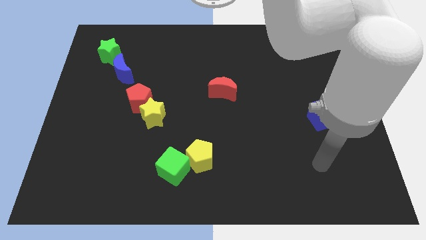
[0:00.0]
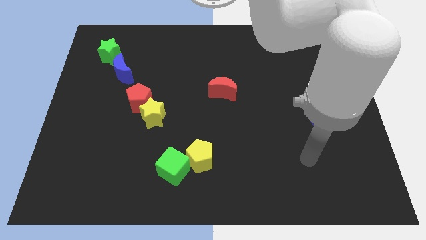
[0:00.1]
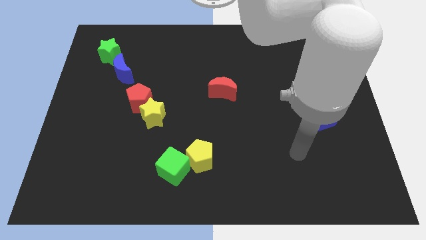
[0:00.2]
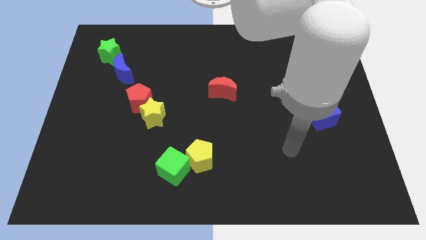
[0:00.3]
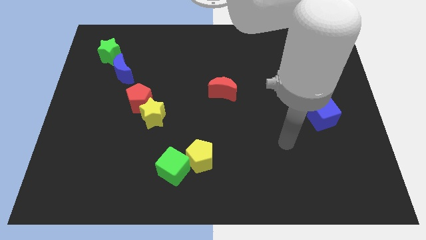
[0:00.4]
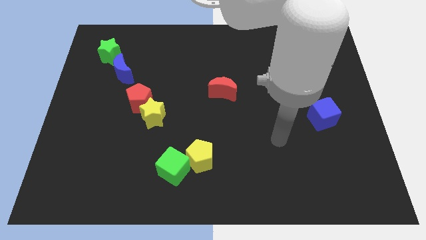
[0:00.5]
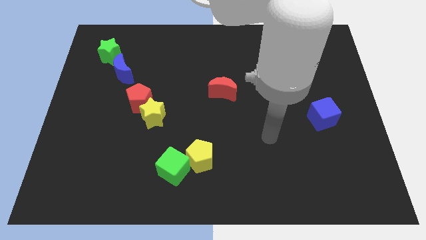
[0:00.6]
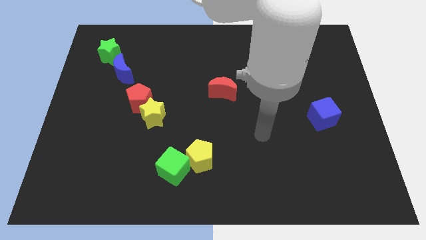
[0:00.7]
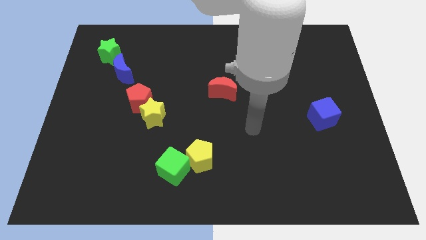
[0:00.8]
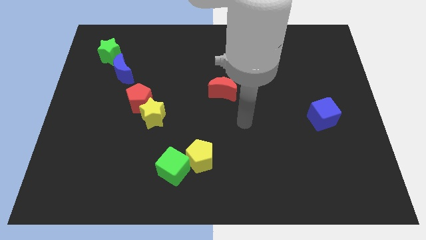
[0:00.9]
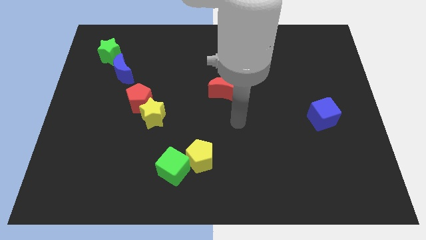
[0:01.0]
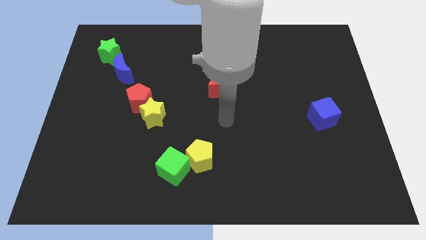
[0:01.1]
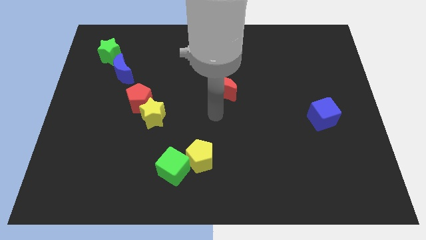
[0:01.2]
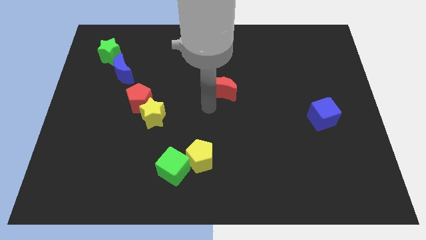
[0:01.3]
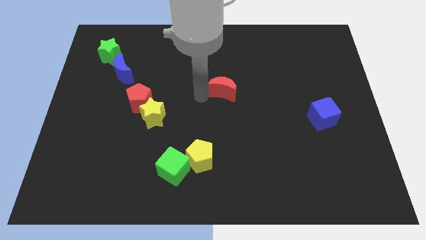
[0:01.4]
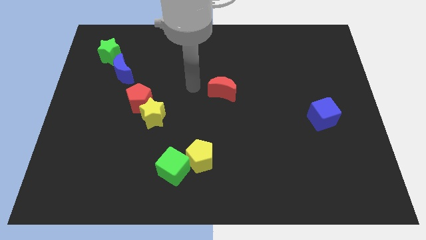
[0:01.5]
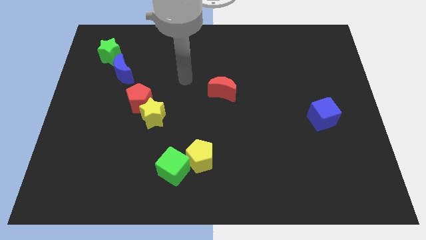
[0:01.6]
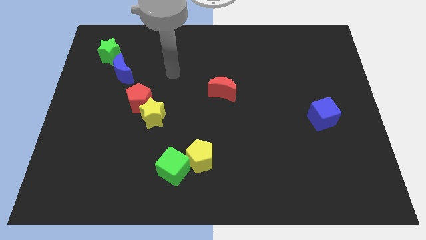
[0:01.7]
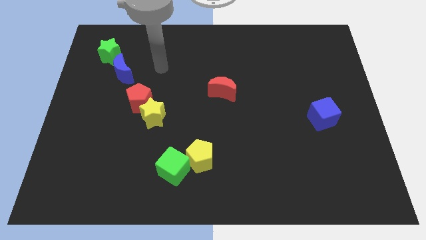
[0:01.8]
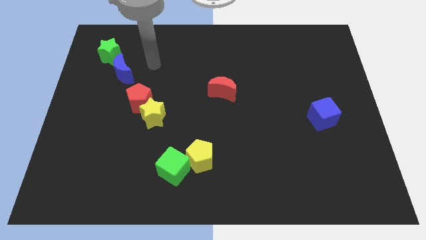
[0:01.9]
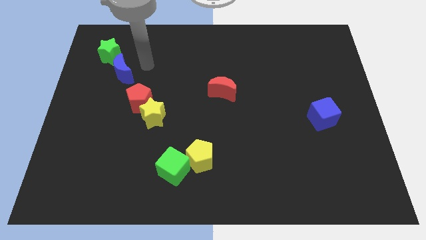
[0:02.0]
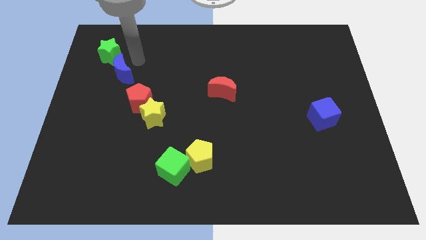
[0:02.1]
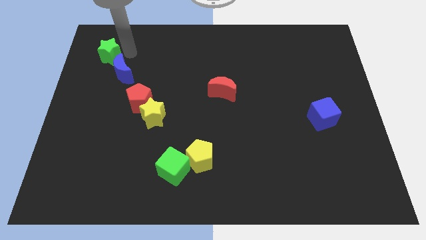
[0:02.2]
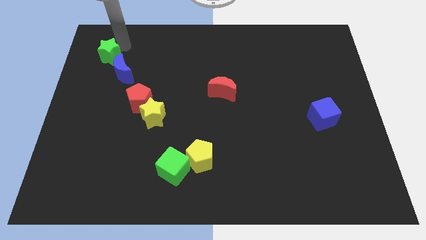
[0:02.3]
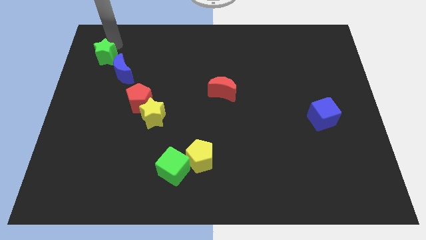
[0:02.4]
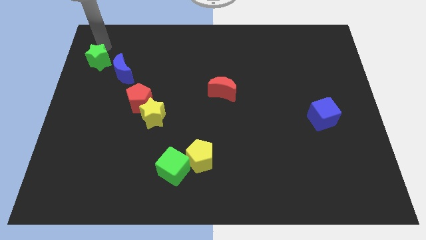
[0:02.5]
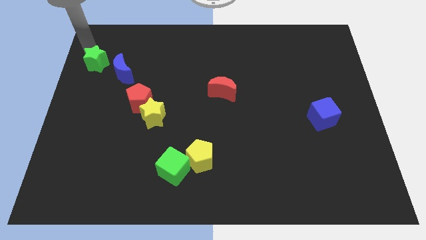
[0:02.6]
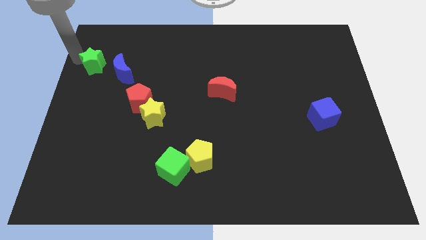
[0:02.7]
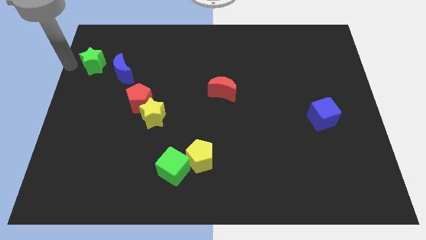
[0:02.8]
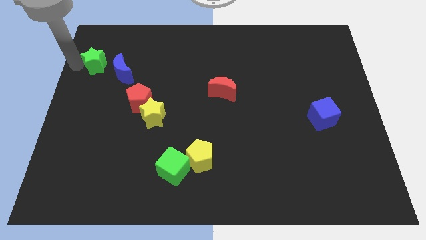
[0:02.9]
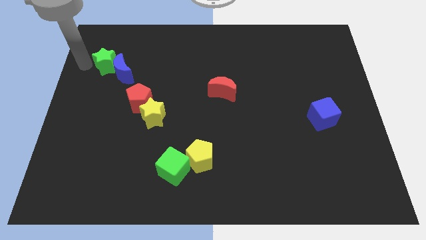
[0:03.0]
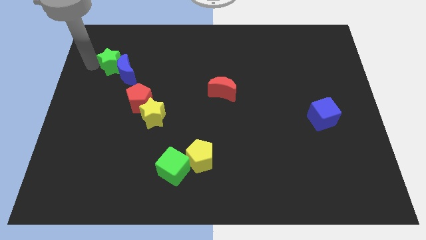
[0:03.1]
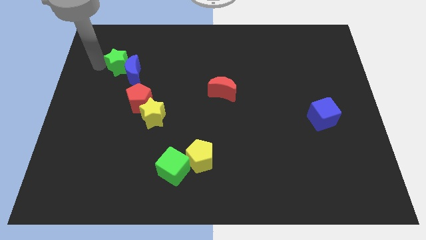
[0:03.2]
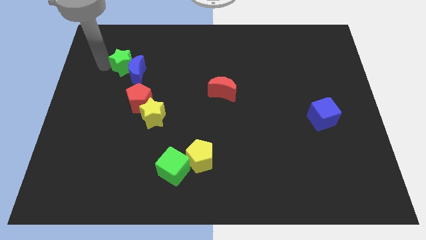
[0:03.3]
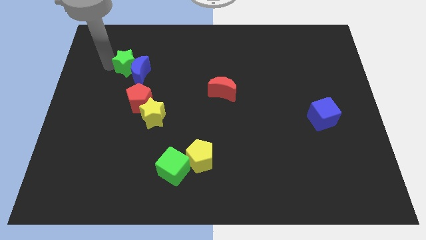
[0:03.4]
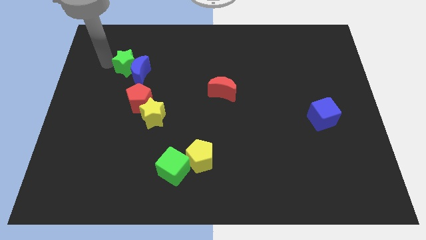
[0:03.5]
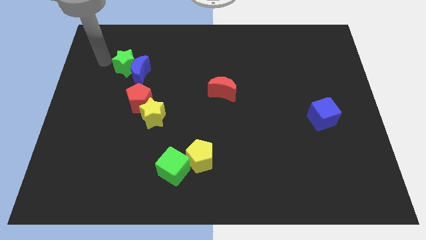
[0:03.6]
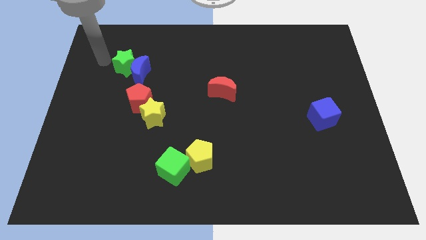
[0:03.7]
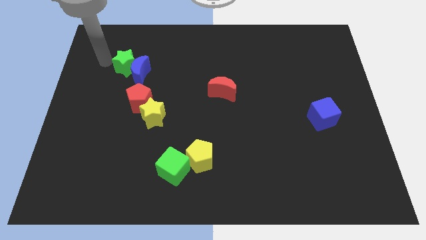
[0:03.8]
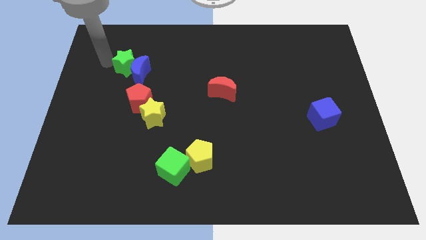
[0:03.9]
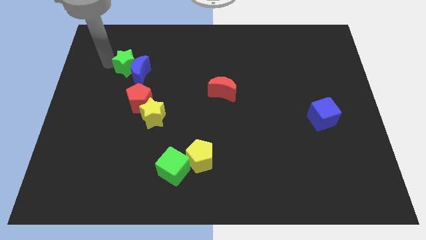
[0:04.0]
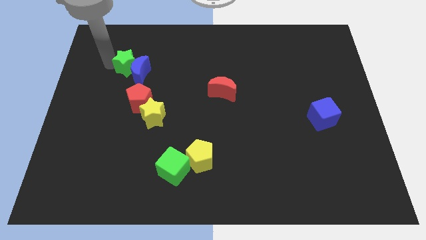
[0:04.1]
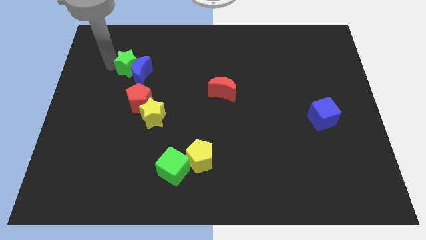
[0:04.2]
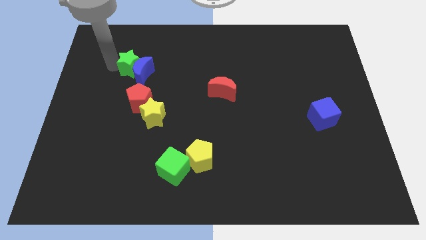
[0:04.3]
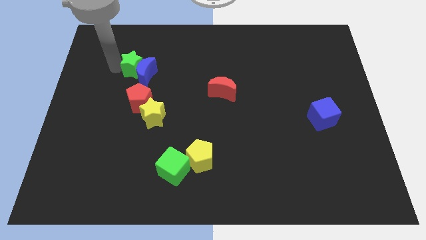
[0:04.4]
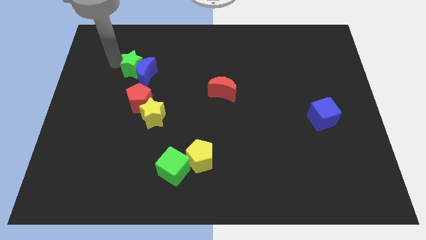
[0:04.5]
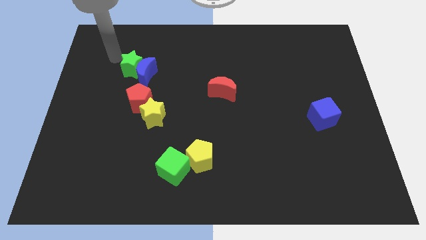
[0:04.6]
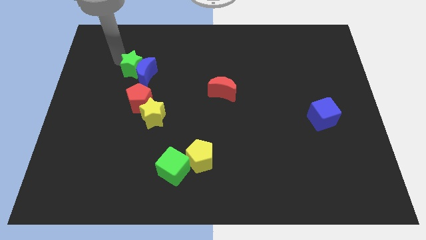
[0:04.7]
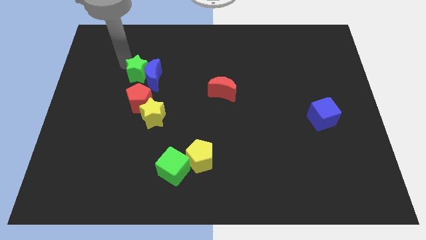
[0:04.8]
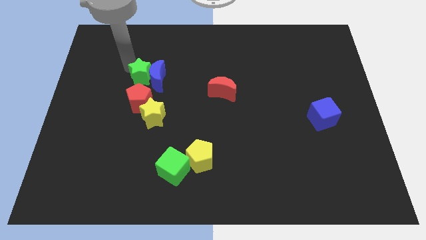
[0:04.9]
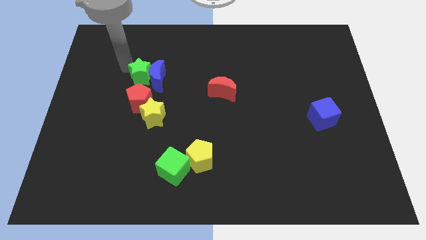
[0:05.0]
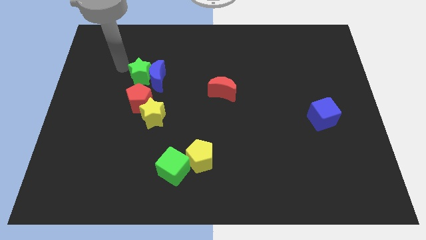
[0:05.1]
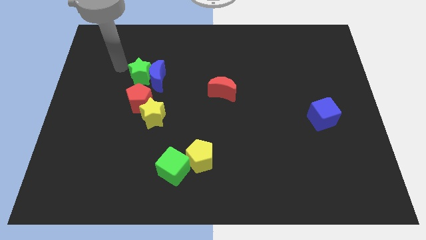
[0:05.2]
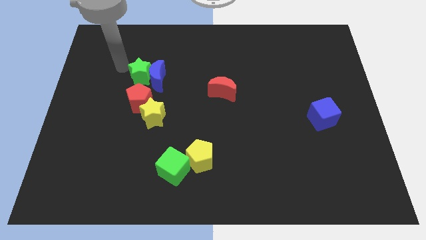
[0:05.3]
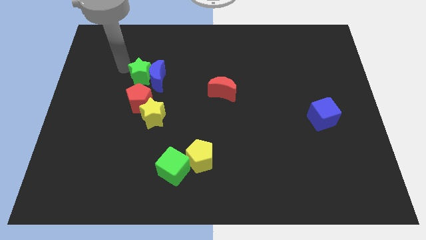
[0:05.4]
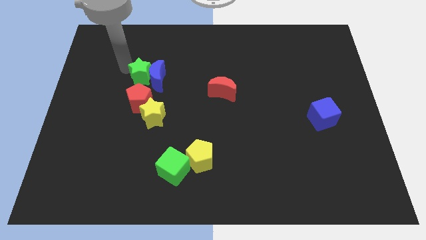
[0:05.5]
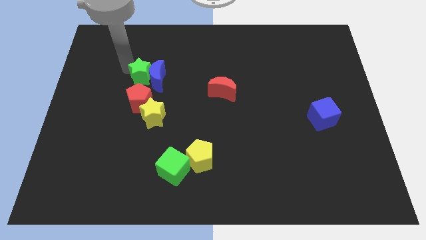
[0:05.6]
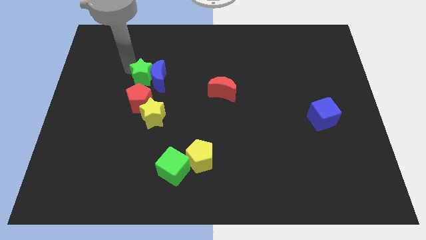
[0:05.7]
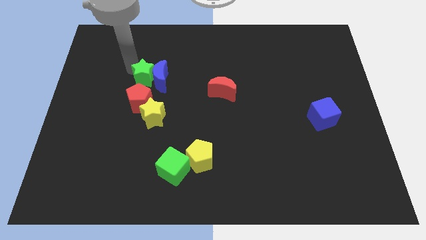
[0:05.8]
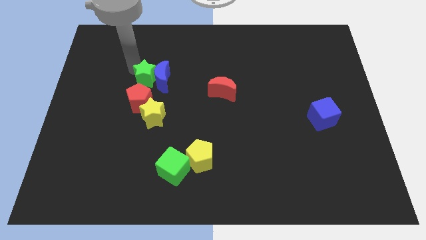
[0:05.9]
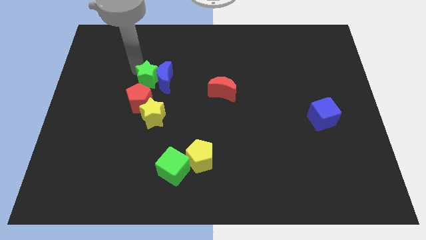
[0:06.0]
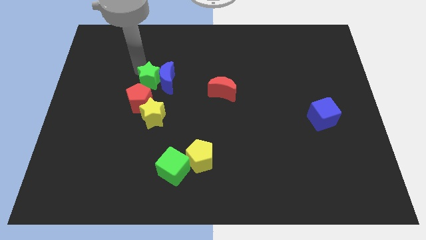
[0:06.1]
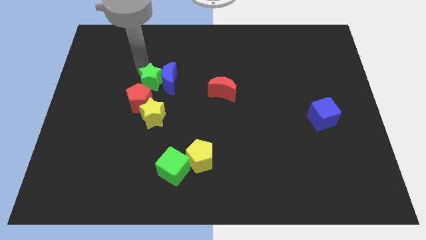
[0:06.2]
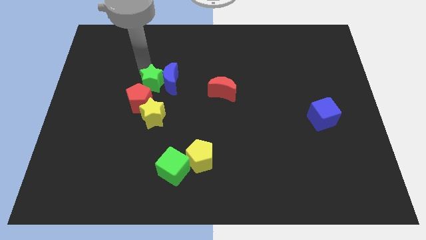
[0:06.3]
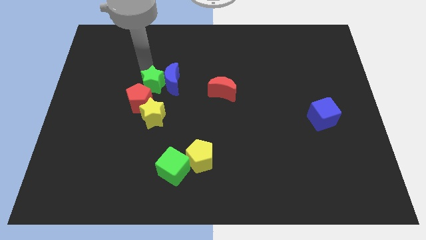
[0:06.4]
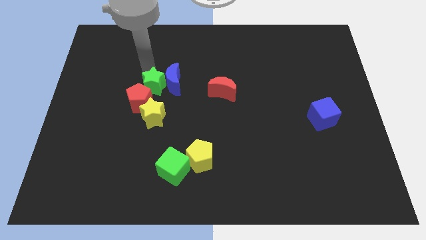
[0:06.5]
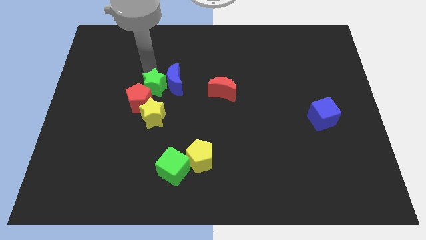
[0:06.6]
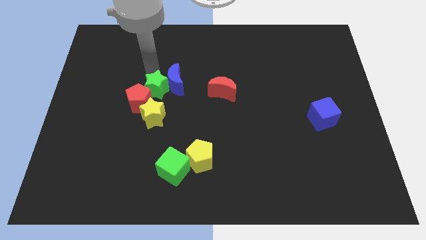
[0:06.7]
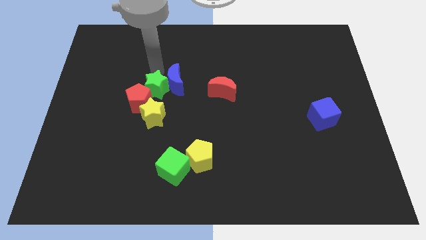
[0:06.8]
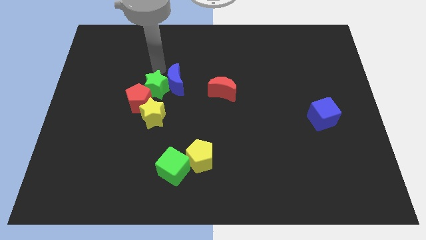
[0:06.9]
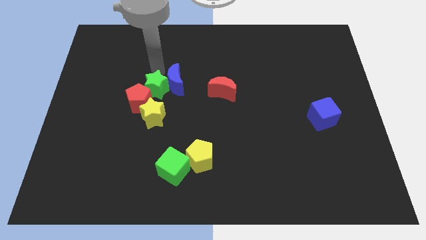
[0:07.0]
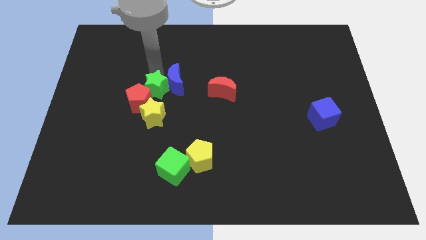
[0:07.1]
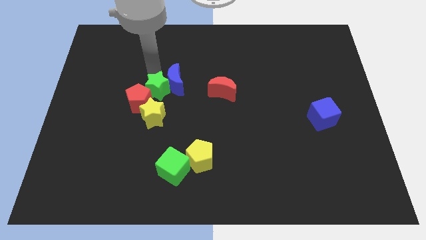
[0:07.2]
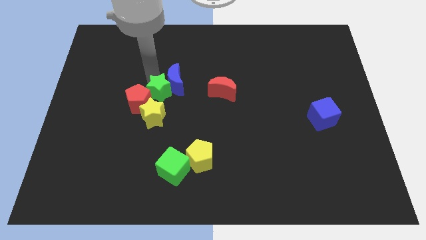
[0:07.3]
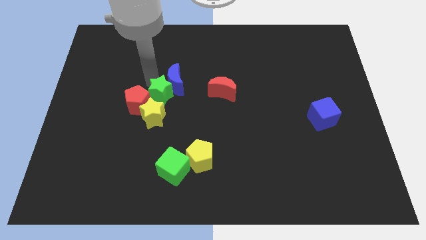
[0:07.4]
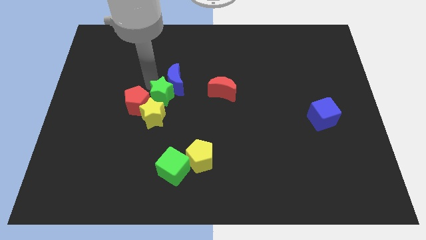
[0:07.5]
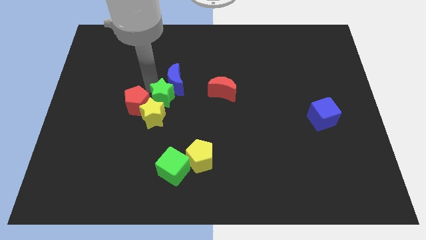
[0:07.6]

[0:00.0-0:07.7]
move the green star towards the yellow star
